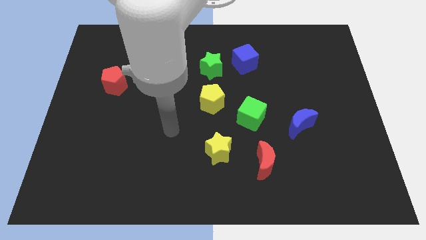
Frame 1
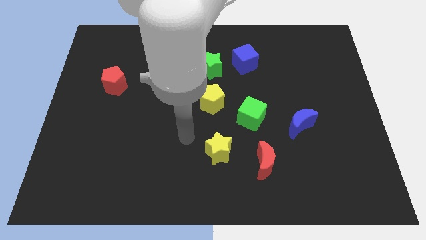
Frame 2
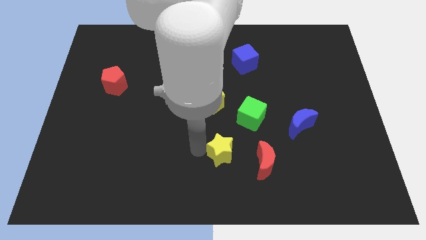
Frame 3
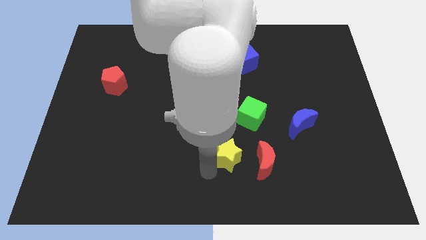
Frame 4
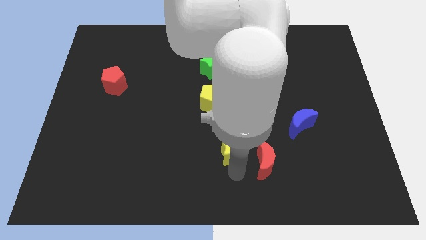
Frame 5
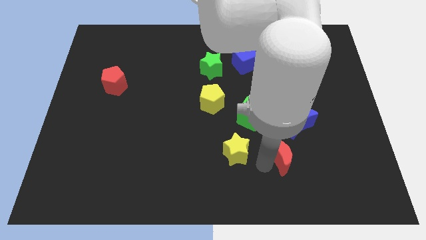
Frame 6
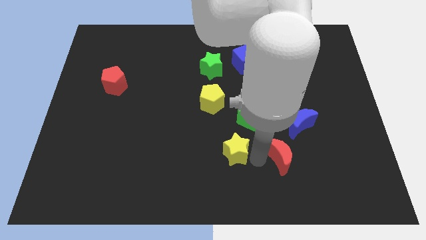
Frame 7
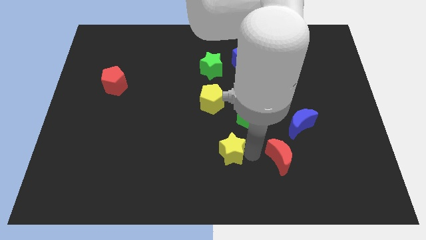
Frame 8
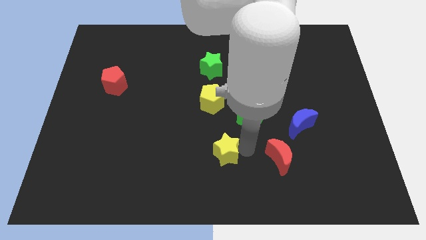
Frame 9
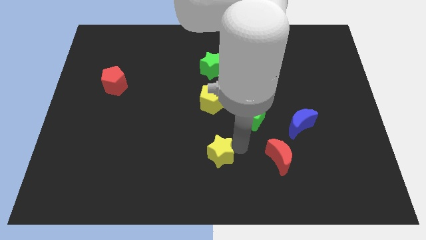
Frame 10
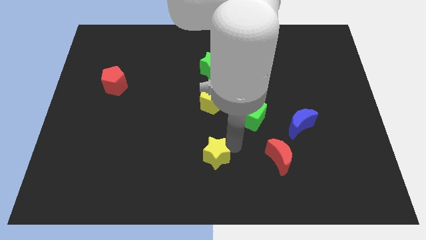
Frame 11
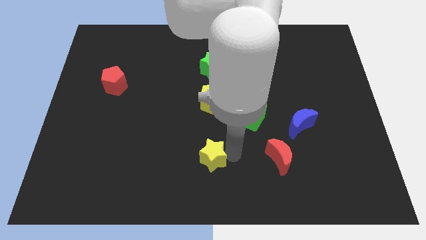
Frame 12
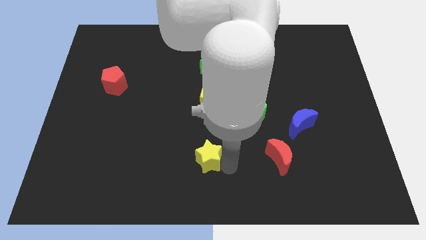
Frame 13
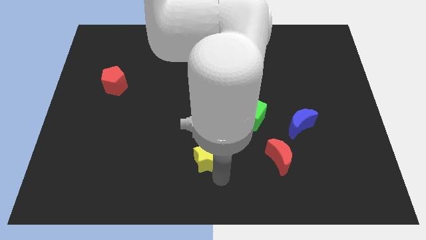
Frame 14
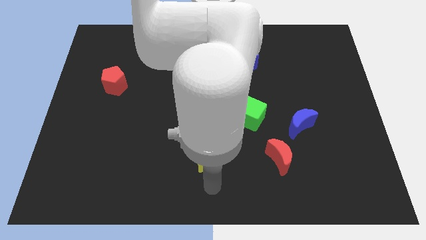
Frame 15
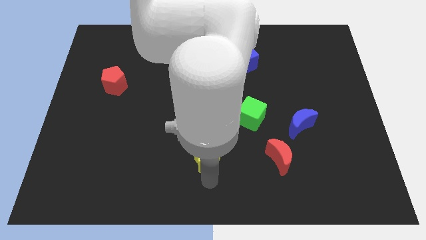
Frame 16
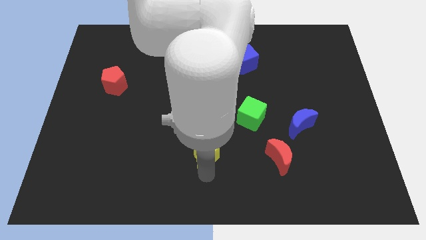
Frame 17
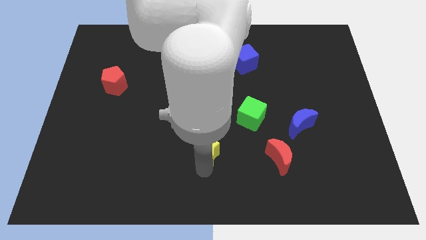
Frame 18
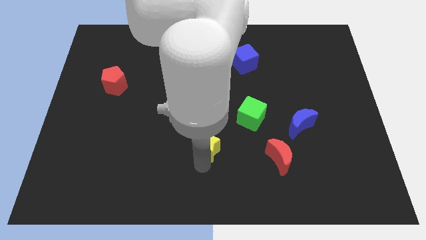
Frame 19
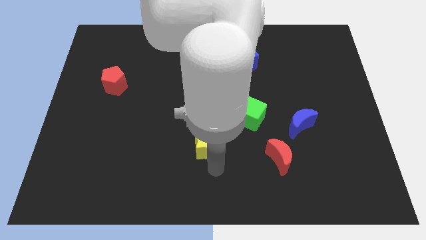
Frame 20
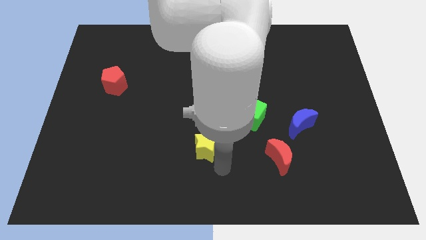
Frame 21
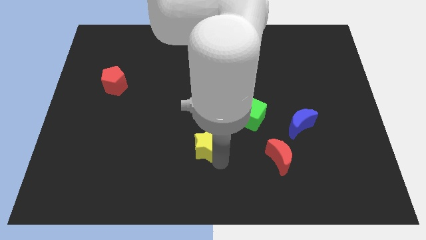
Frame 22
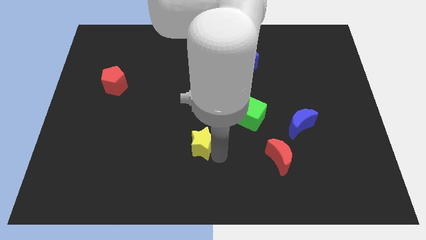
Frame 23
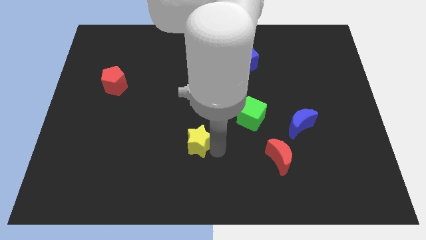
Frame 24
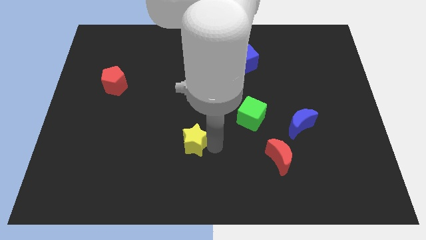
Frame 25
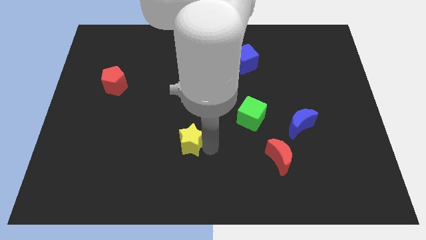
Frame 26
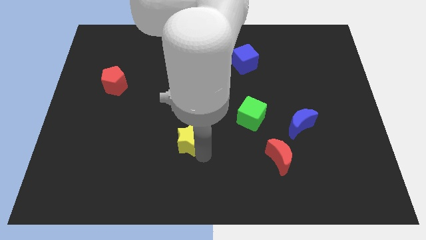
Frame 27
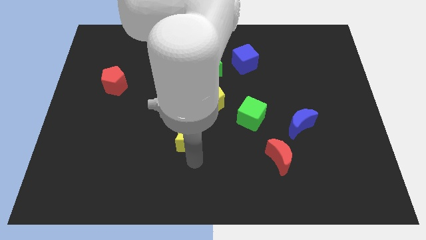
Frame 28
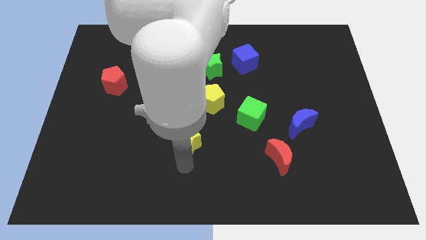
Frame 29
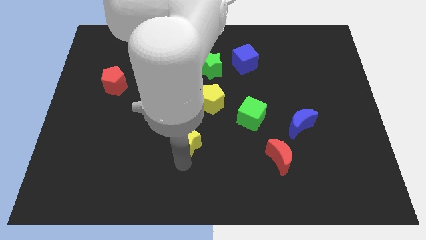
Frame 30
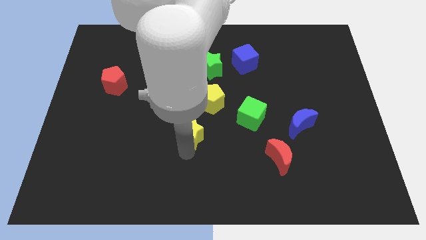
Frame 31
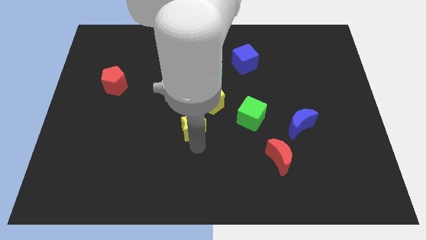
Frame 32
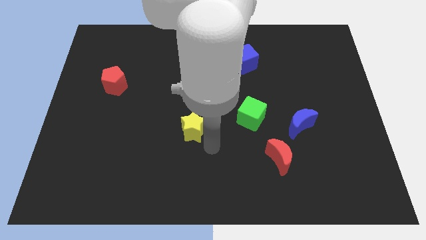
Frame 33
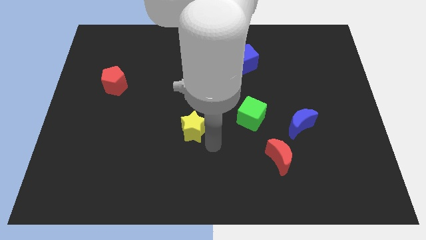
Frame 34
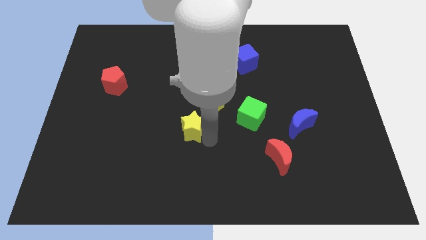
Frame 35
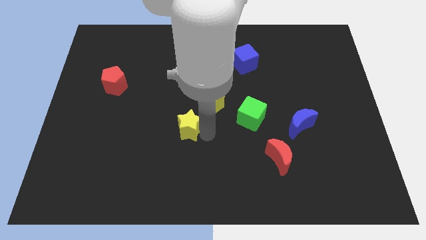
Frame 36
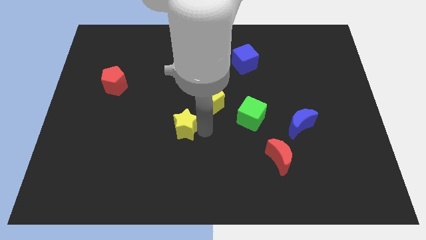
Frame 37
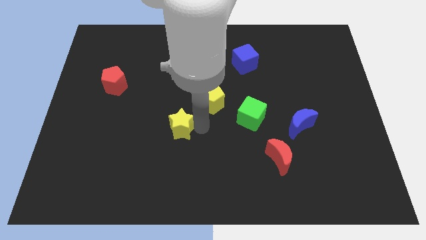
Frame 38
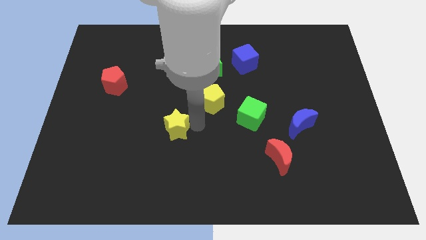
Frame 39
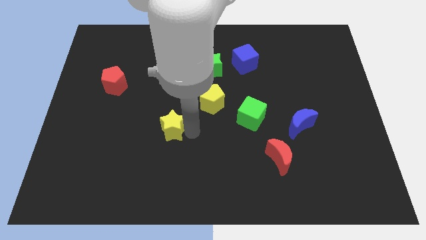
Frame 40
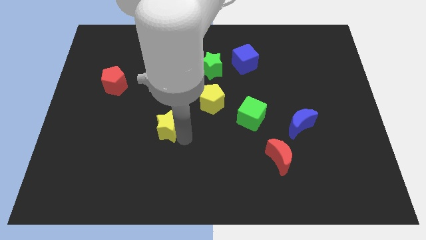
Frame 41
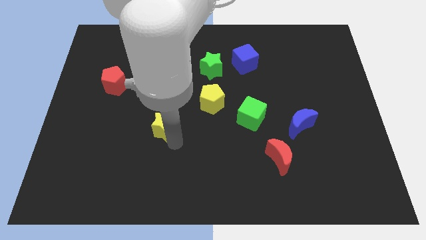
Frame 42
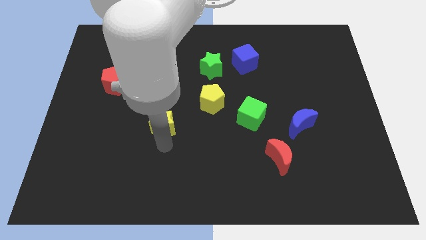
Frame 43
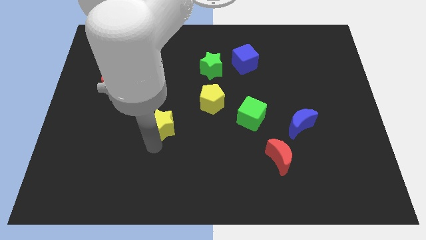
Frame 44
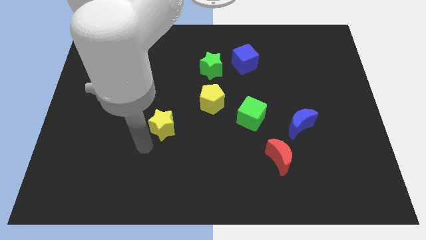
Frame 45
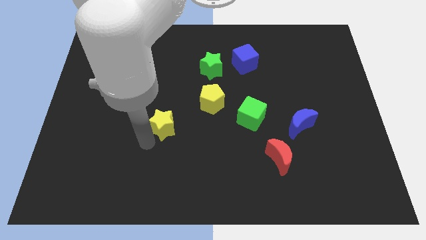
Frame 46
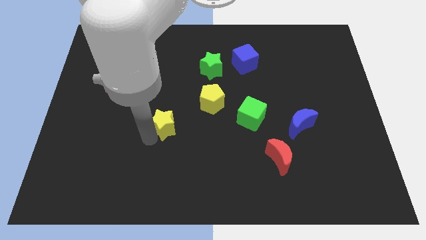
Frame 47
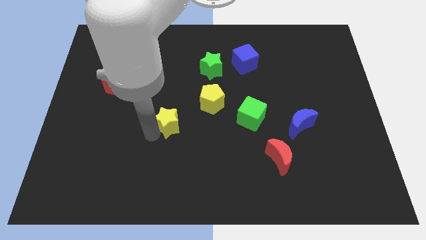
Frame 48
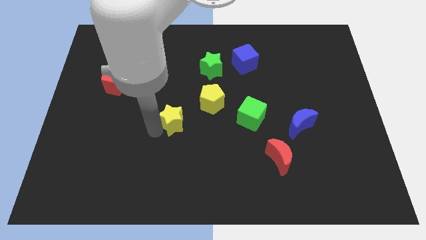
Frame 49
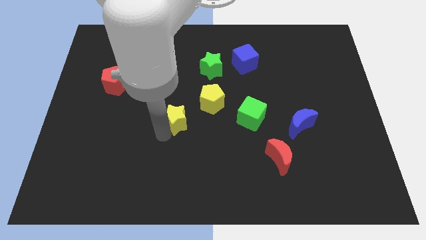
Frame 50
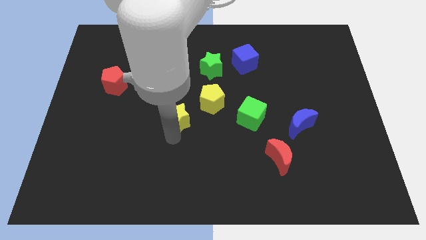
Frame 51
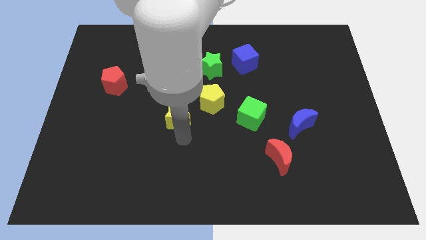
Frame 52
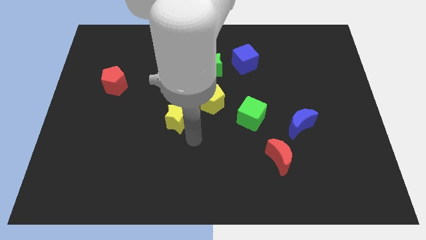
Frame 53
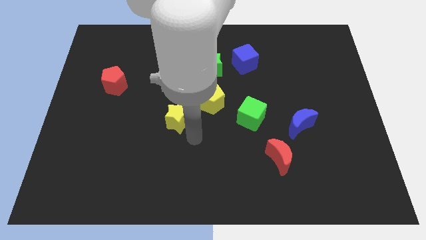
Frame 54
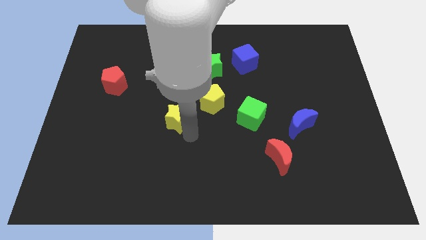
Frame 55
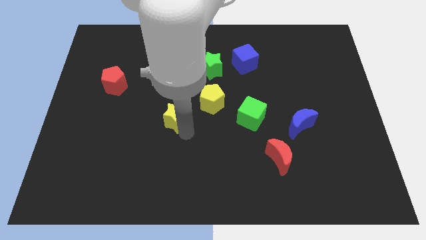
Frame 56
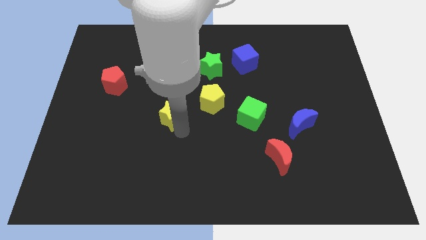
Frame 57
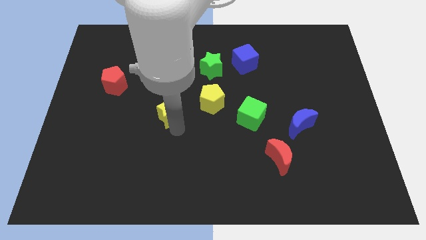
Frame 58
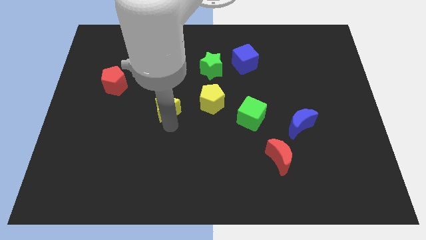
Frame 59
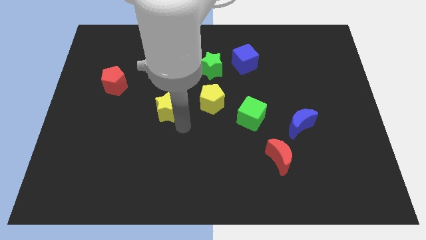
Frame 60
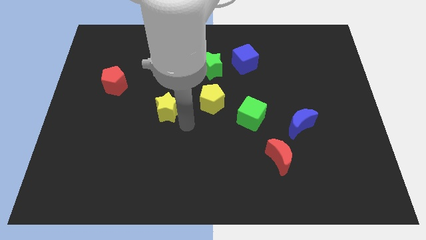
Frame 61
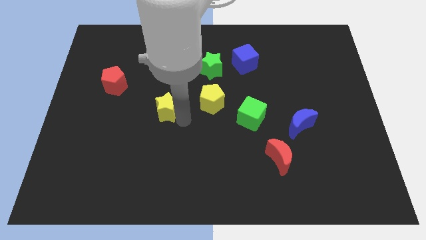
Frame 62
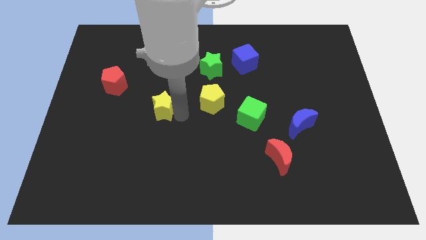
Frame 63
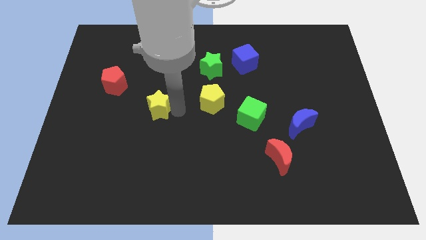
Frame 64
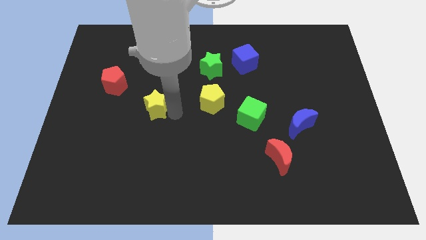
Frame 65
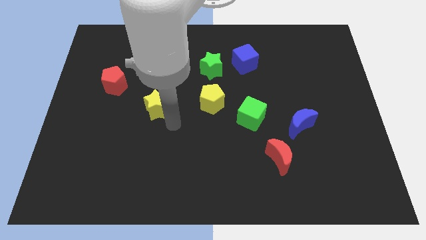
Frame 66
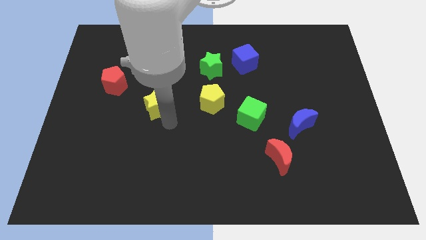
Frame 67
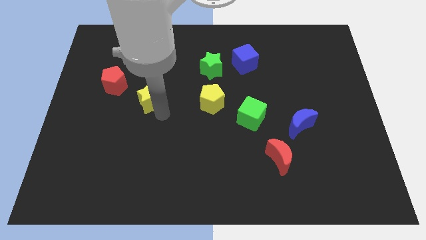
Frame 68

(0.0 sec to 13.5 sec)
slide the yellow star upwards and left diagonally

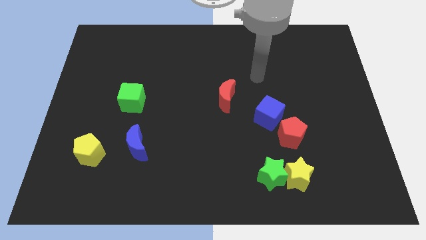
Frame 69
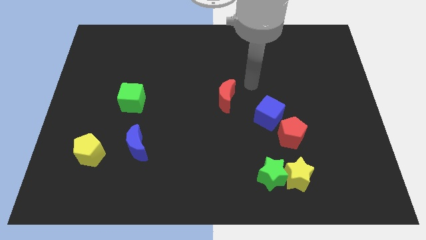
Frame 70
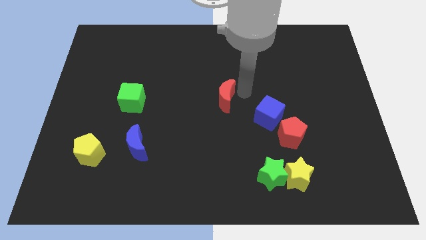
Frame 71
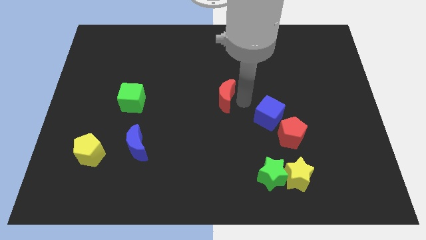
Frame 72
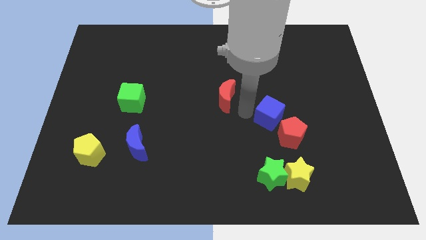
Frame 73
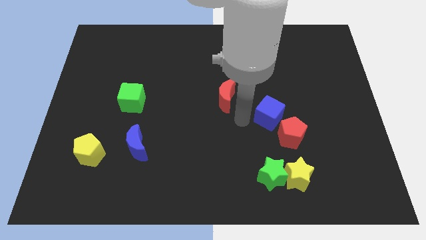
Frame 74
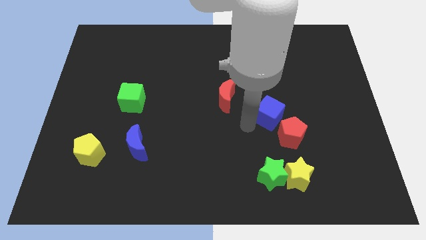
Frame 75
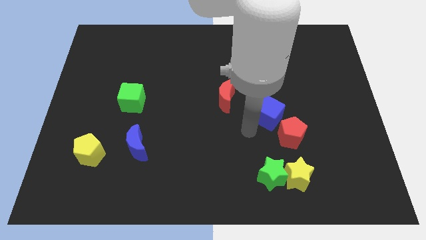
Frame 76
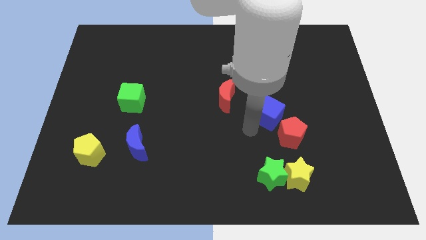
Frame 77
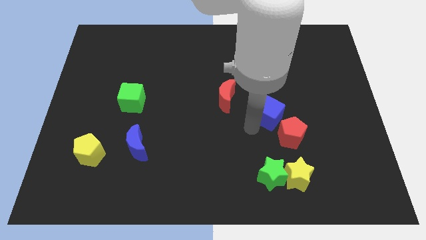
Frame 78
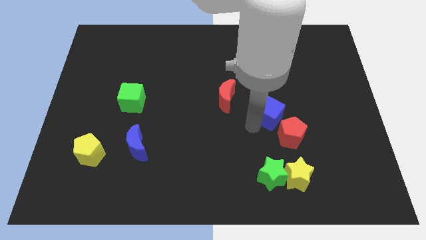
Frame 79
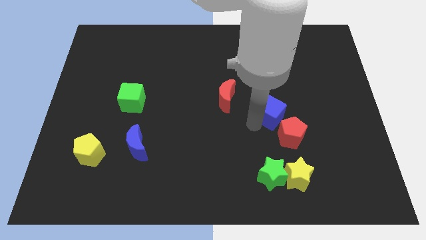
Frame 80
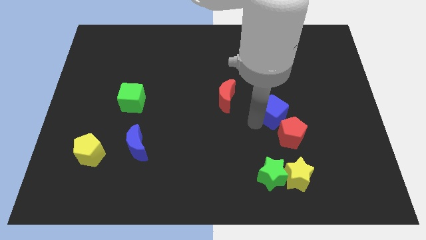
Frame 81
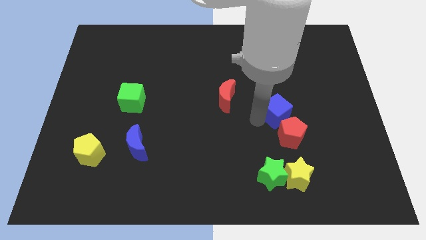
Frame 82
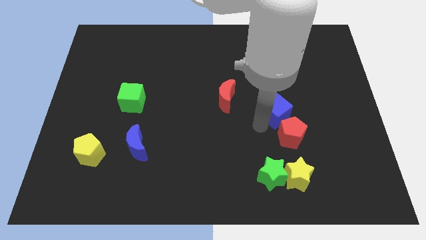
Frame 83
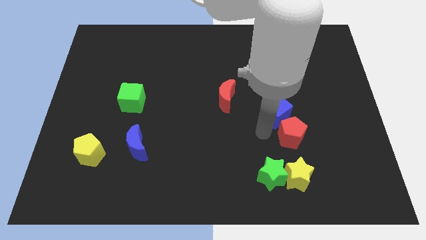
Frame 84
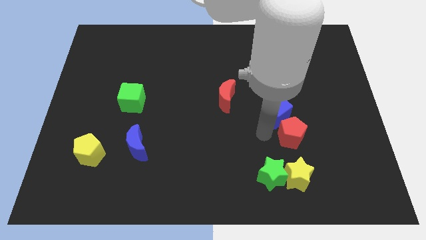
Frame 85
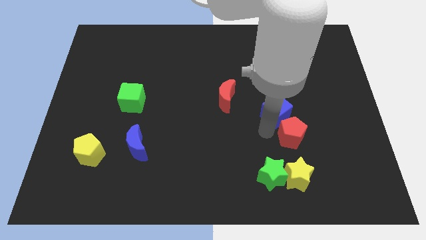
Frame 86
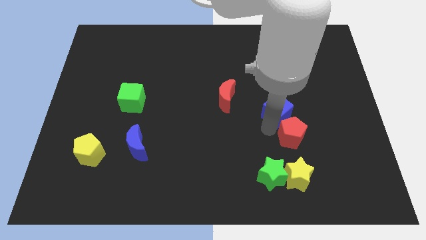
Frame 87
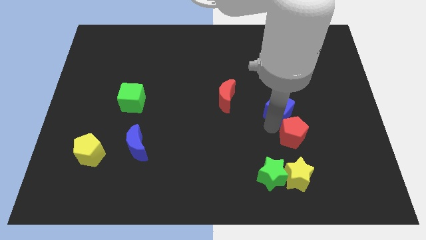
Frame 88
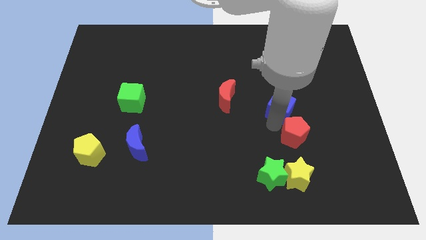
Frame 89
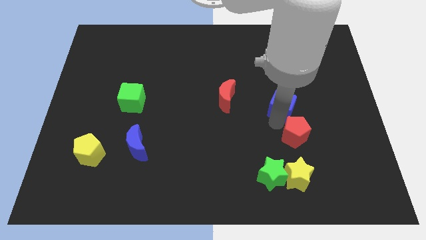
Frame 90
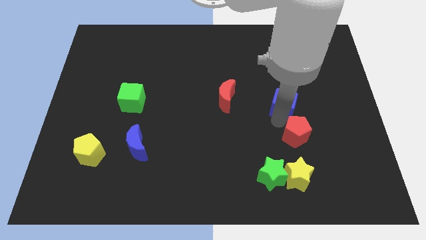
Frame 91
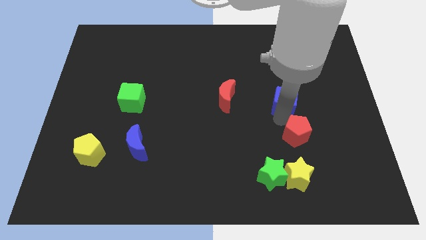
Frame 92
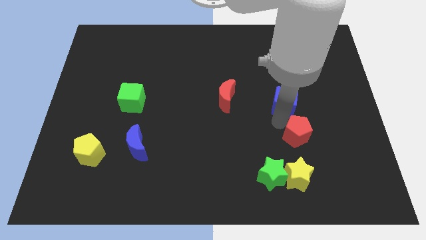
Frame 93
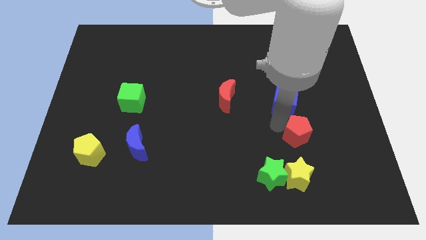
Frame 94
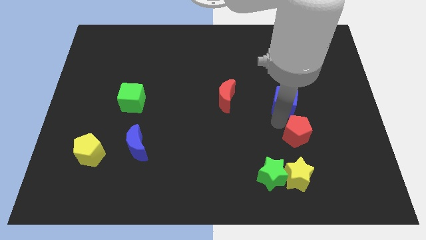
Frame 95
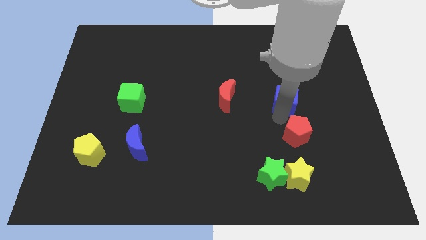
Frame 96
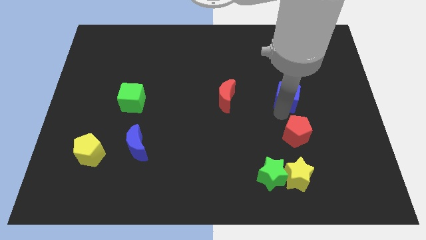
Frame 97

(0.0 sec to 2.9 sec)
slightly slide the blue cube upwards and right
